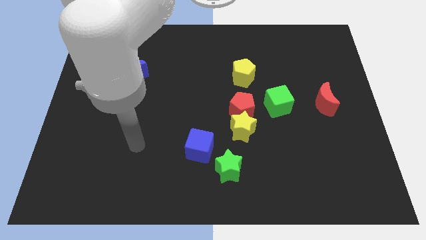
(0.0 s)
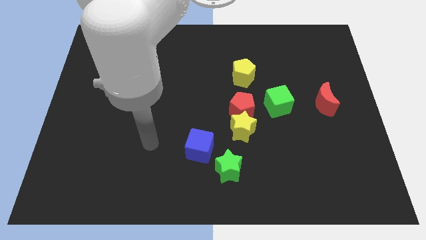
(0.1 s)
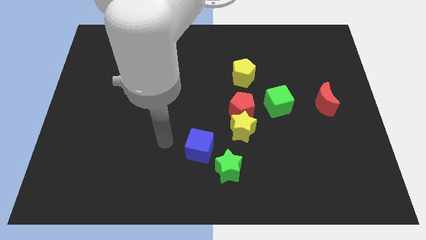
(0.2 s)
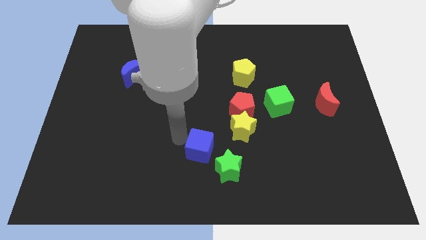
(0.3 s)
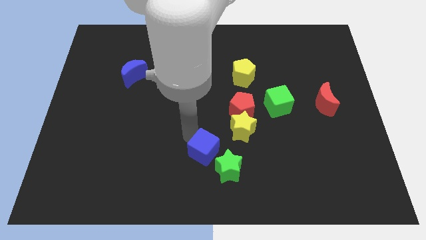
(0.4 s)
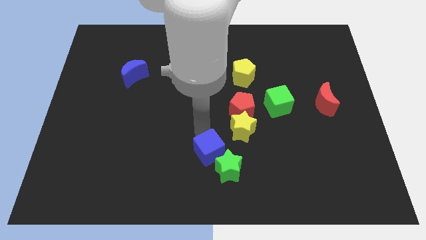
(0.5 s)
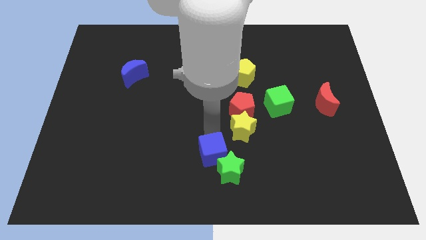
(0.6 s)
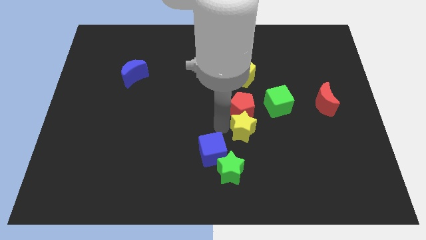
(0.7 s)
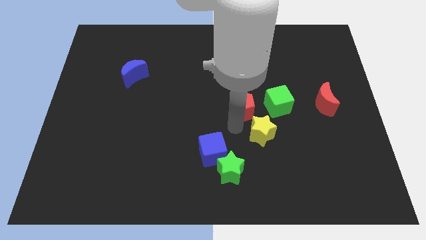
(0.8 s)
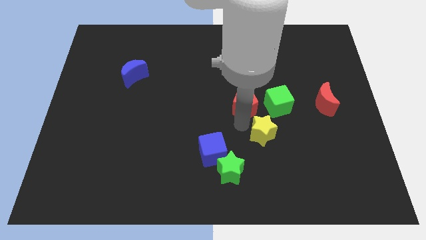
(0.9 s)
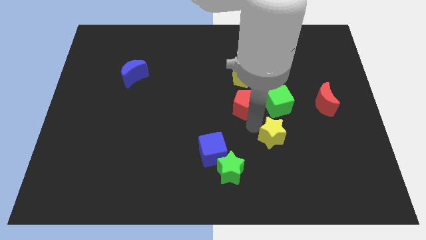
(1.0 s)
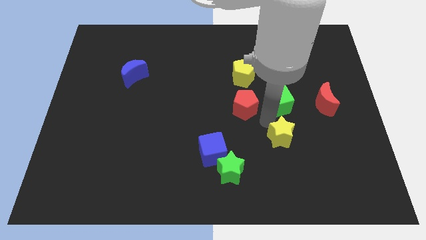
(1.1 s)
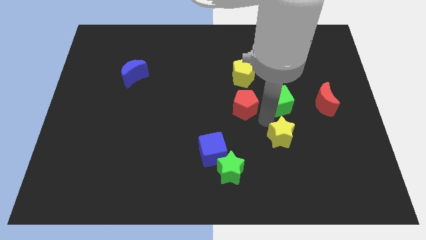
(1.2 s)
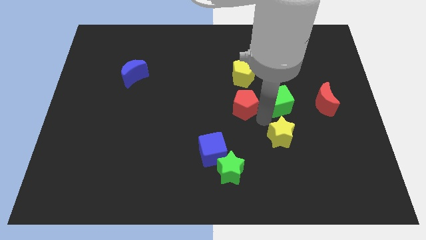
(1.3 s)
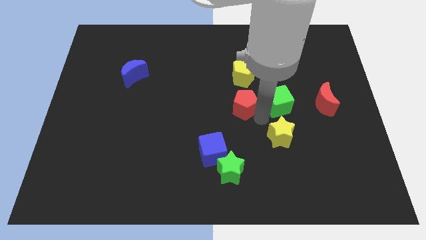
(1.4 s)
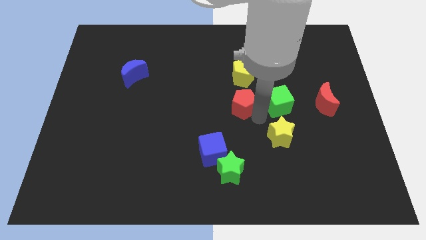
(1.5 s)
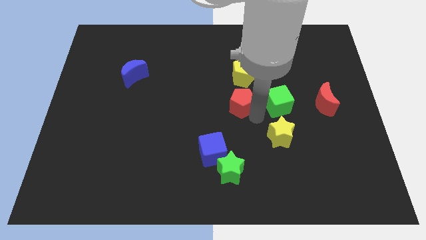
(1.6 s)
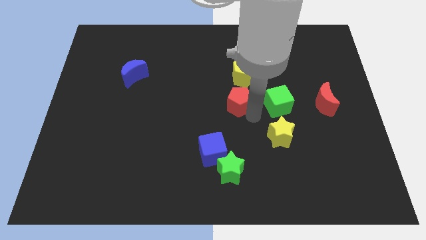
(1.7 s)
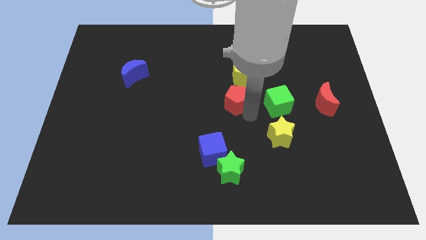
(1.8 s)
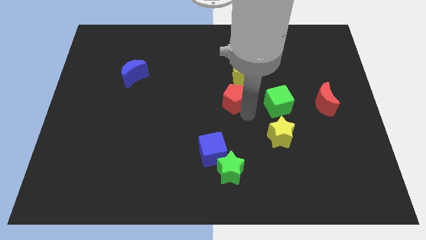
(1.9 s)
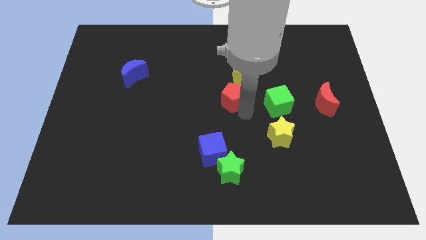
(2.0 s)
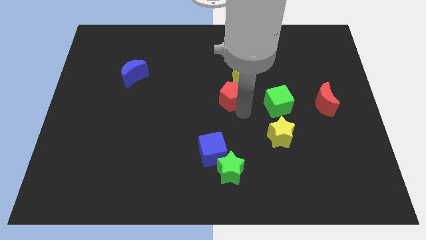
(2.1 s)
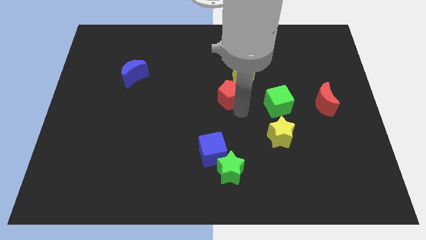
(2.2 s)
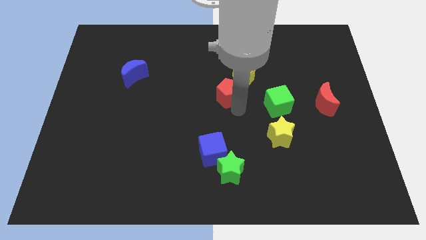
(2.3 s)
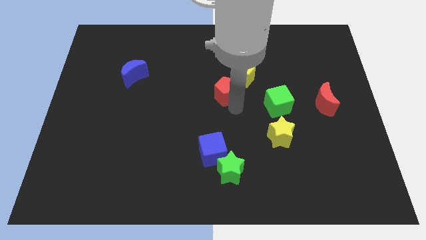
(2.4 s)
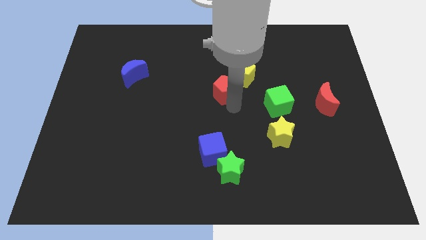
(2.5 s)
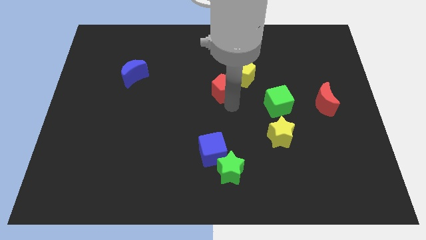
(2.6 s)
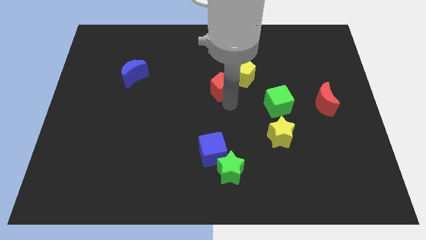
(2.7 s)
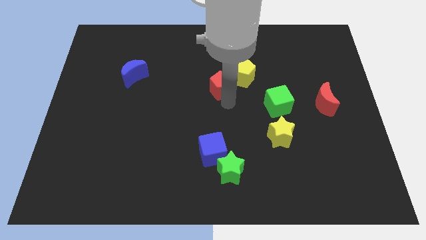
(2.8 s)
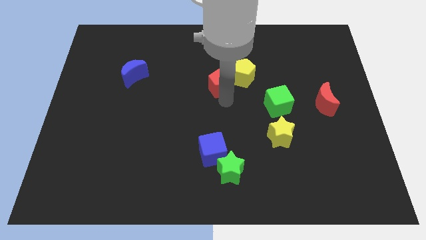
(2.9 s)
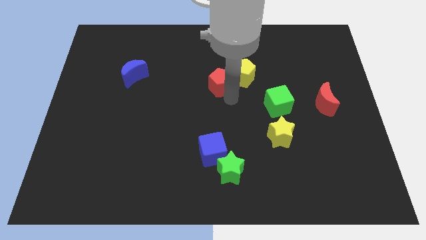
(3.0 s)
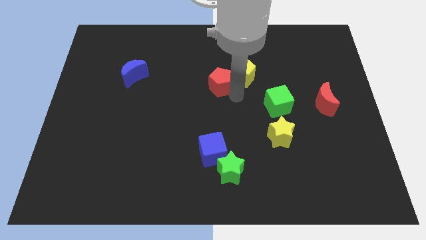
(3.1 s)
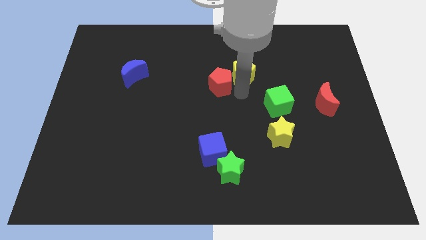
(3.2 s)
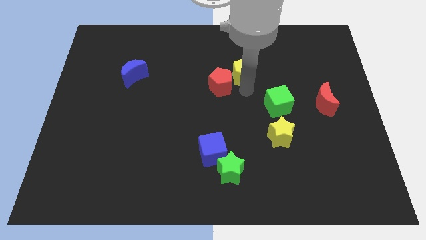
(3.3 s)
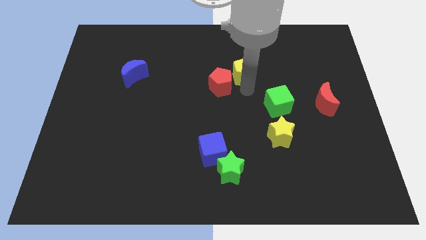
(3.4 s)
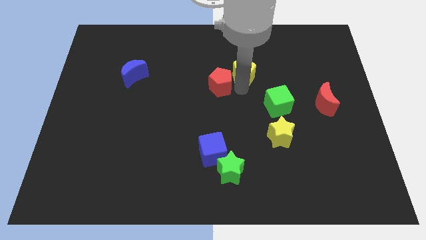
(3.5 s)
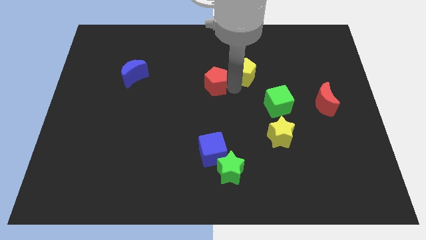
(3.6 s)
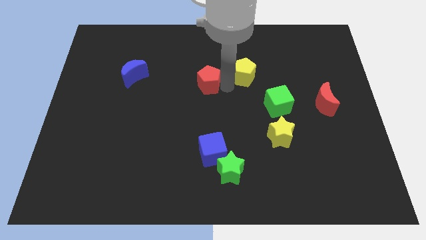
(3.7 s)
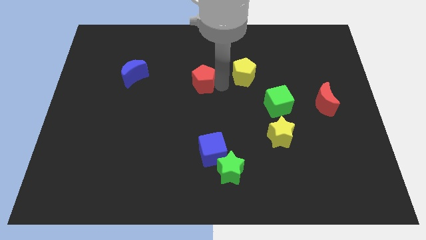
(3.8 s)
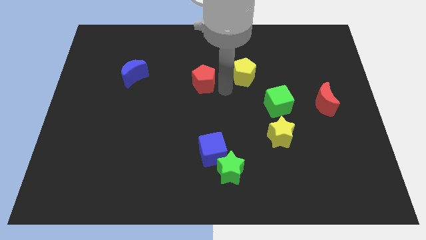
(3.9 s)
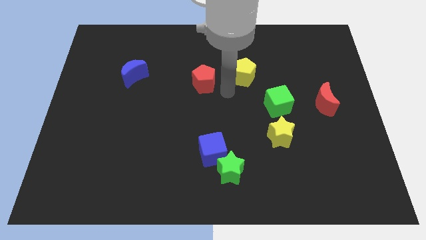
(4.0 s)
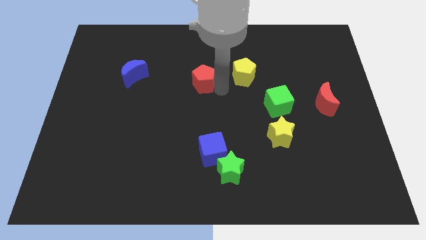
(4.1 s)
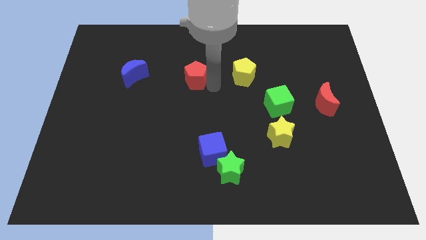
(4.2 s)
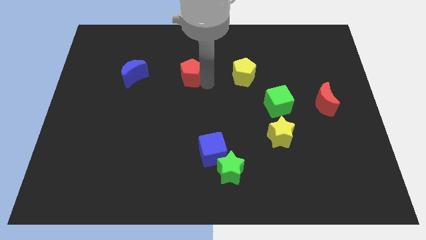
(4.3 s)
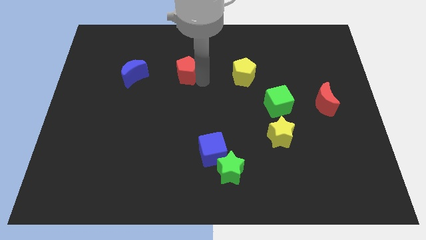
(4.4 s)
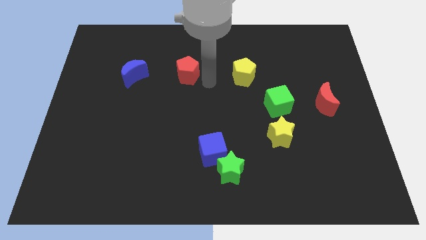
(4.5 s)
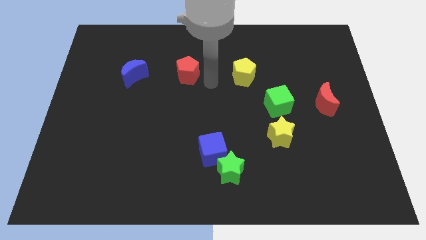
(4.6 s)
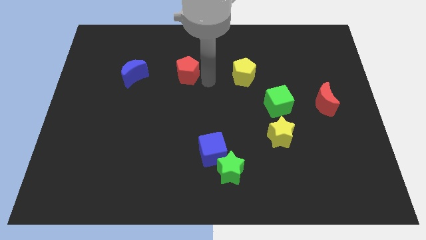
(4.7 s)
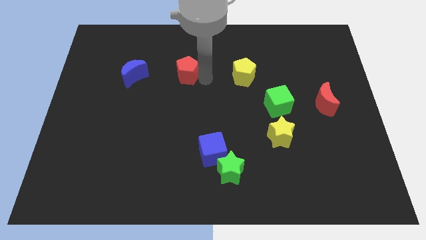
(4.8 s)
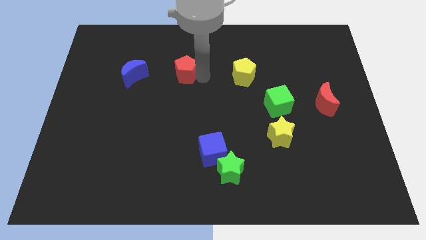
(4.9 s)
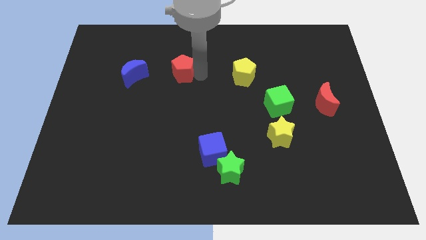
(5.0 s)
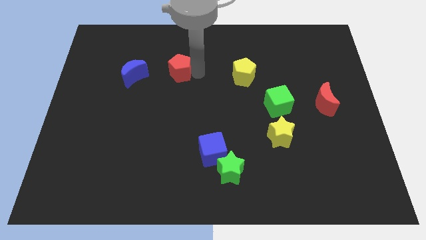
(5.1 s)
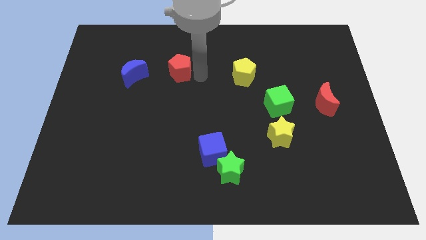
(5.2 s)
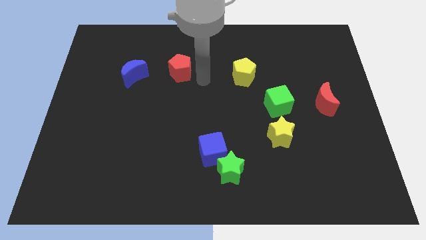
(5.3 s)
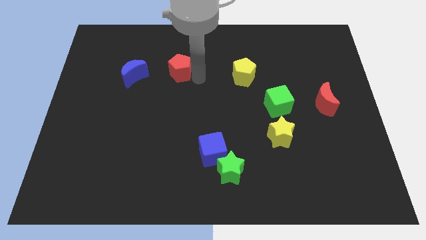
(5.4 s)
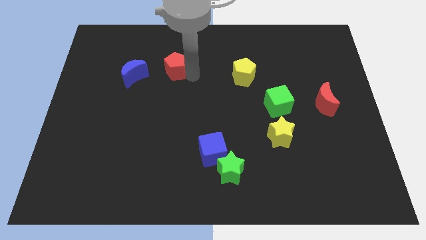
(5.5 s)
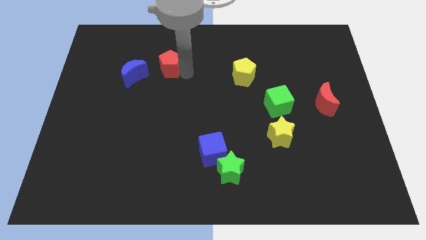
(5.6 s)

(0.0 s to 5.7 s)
slide the red pentagon diagonally up and to the right of the blue moon

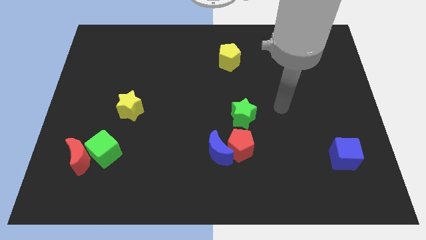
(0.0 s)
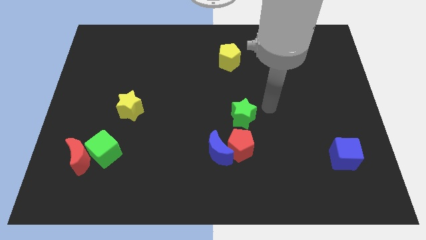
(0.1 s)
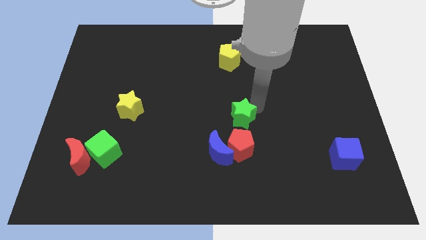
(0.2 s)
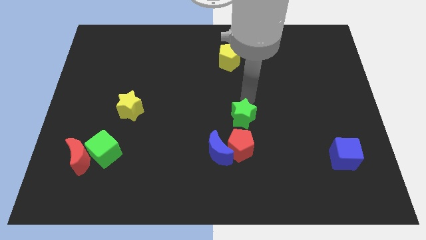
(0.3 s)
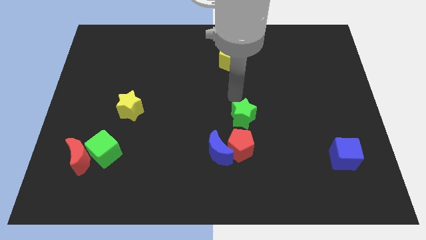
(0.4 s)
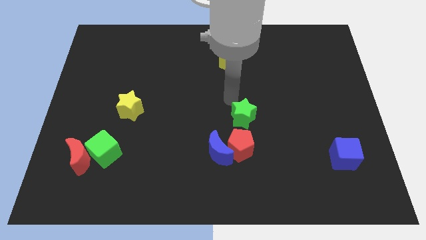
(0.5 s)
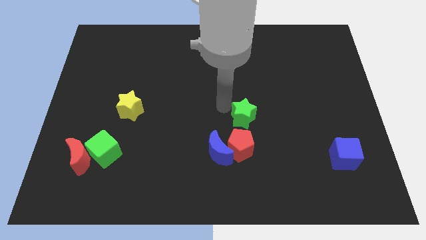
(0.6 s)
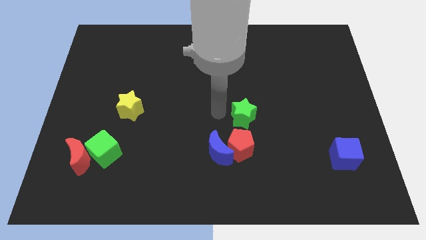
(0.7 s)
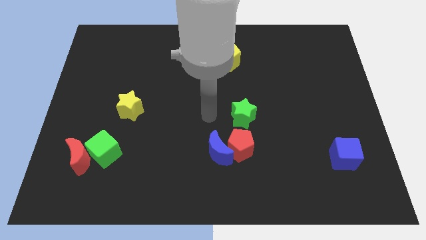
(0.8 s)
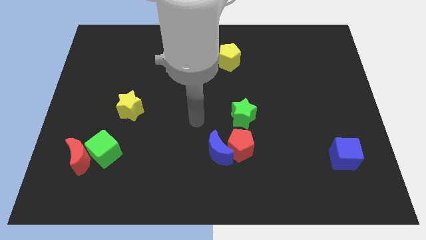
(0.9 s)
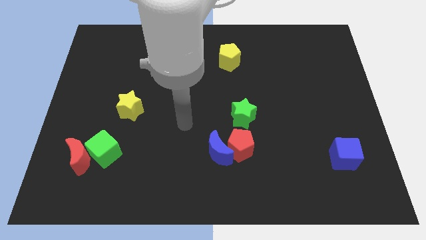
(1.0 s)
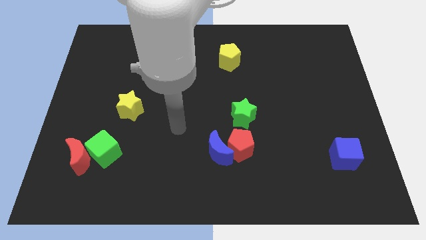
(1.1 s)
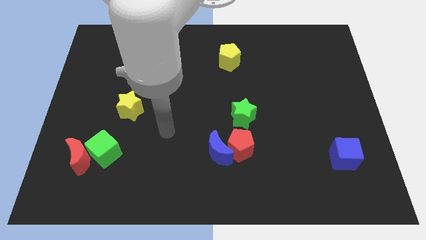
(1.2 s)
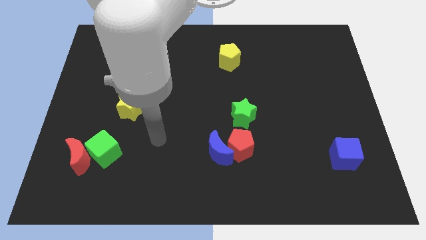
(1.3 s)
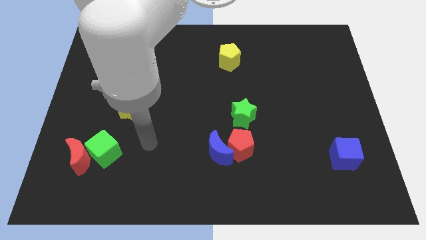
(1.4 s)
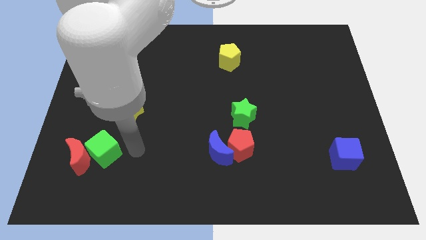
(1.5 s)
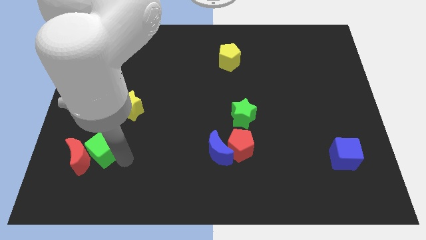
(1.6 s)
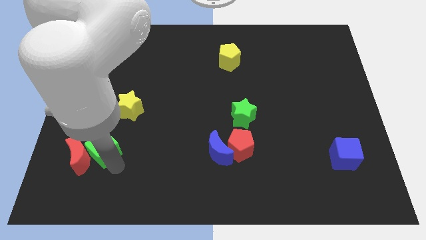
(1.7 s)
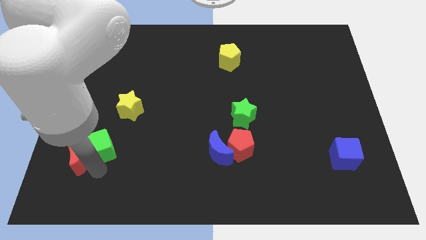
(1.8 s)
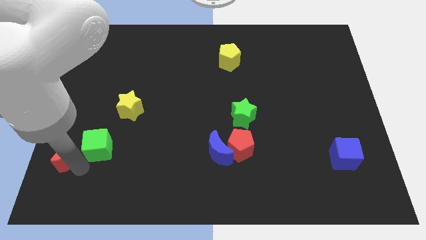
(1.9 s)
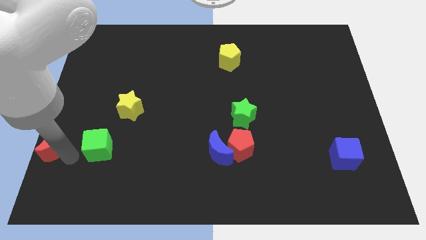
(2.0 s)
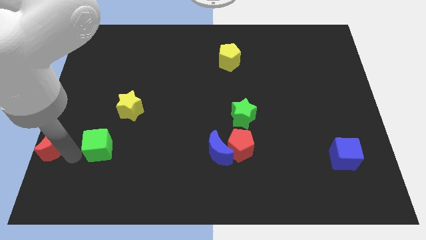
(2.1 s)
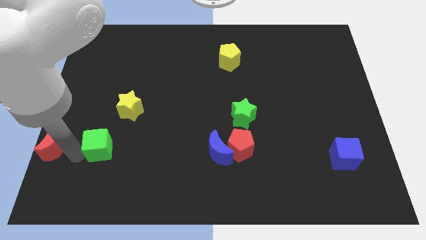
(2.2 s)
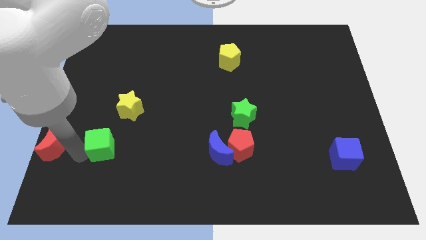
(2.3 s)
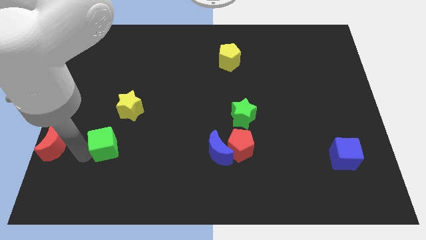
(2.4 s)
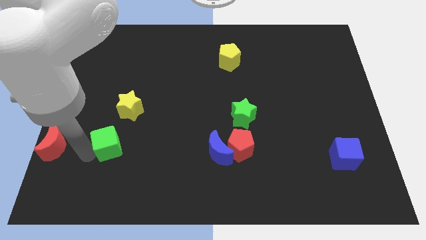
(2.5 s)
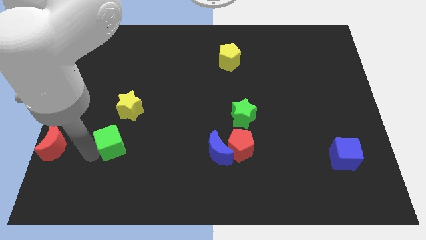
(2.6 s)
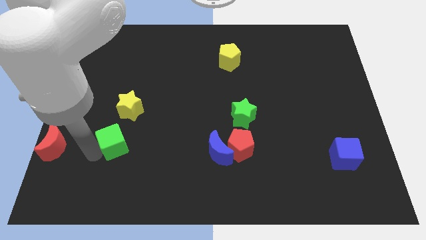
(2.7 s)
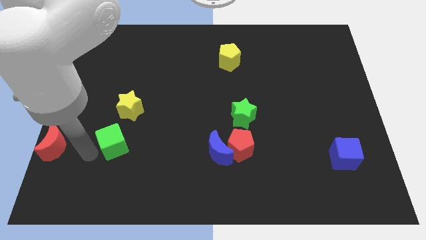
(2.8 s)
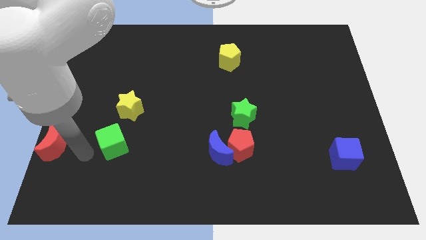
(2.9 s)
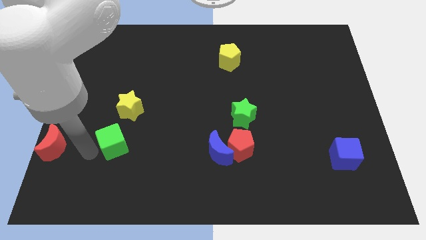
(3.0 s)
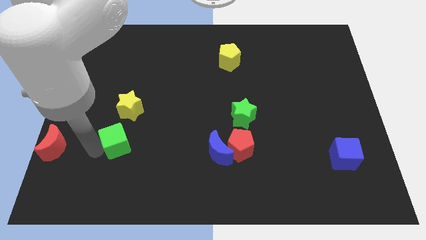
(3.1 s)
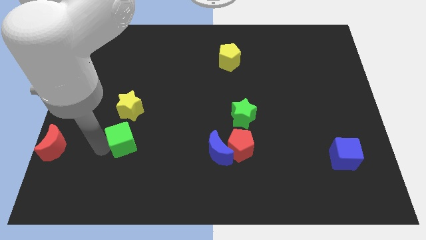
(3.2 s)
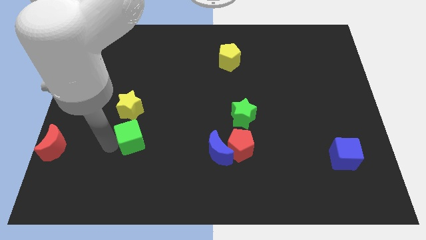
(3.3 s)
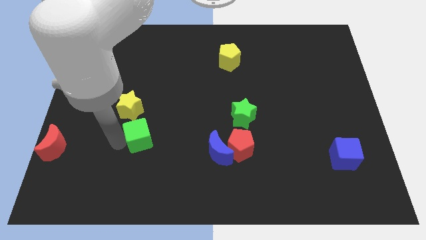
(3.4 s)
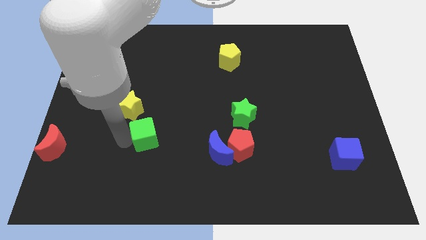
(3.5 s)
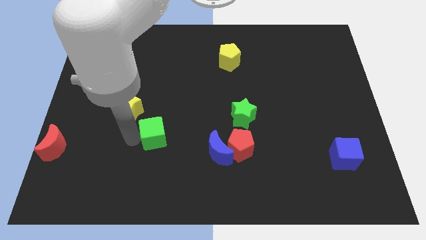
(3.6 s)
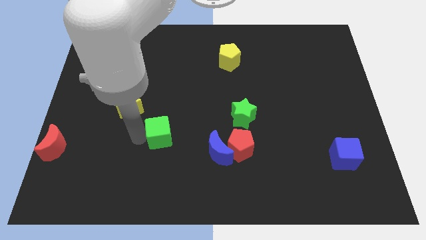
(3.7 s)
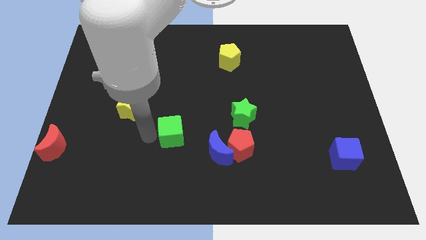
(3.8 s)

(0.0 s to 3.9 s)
move the green cube to the top left of the blue moon
